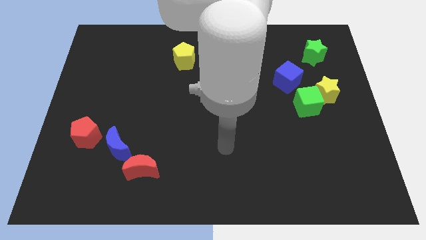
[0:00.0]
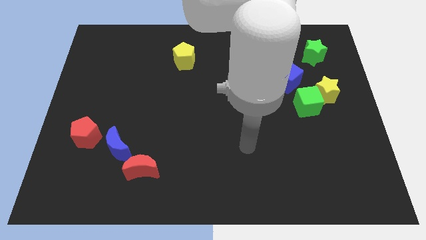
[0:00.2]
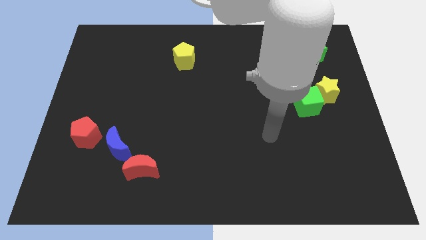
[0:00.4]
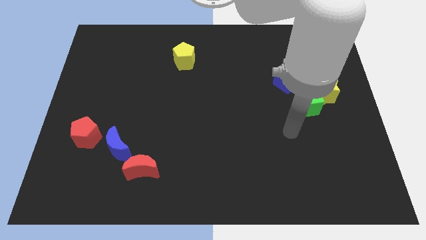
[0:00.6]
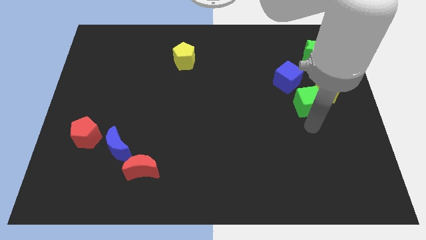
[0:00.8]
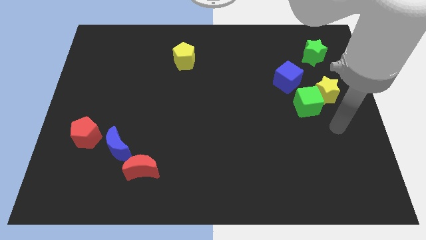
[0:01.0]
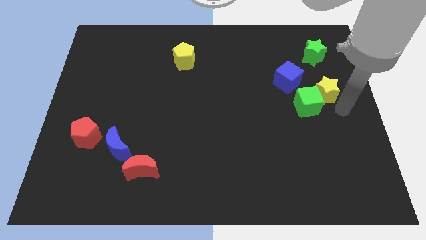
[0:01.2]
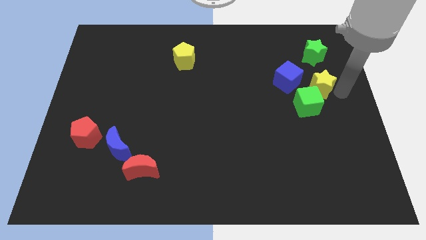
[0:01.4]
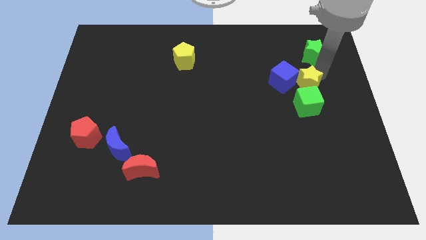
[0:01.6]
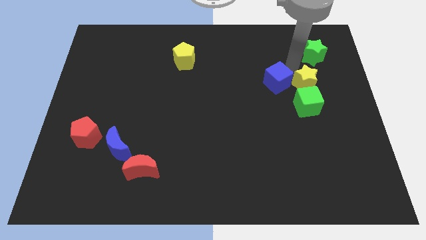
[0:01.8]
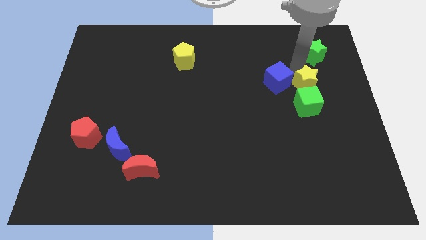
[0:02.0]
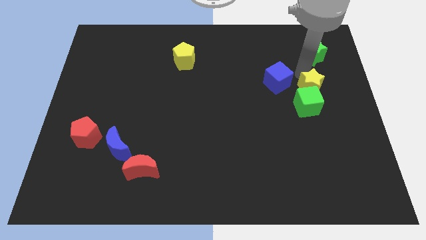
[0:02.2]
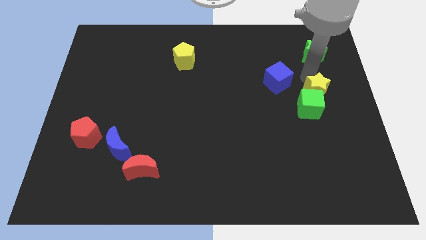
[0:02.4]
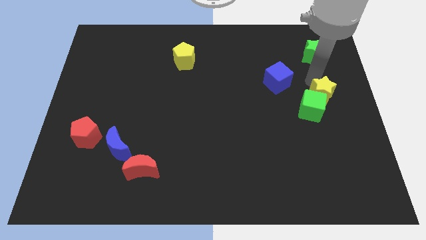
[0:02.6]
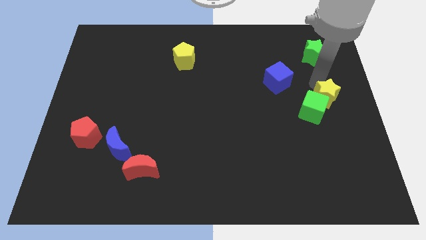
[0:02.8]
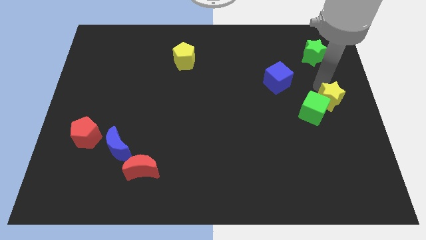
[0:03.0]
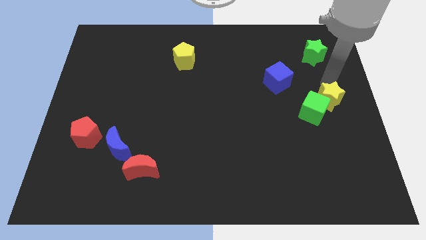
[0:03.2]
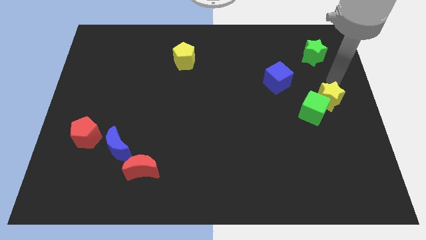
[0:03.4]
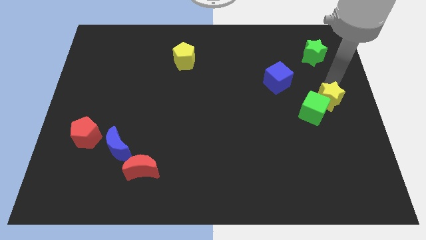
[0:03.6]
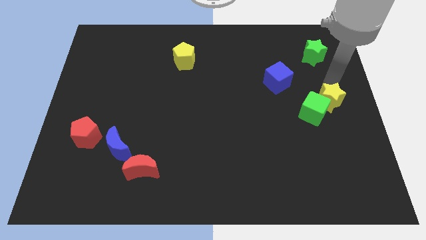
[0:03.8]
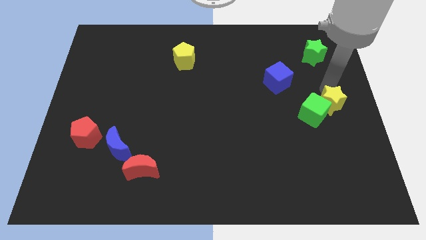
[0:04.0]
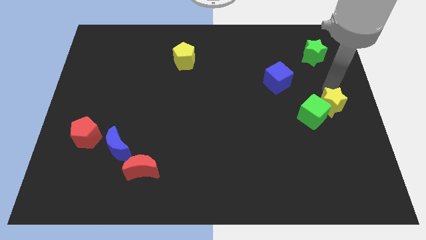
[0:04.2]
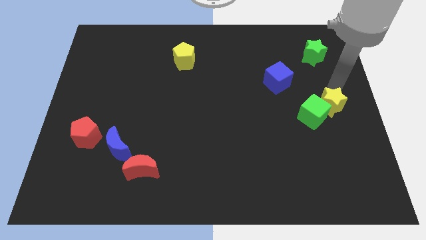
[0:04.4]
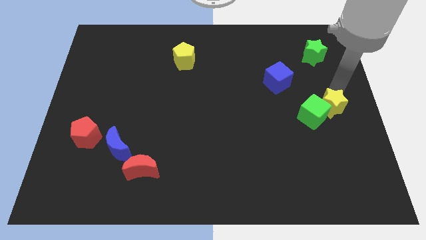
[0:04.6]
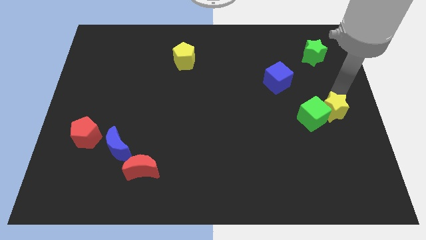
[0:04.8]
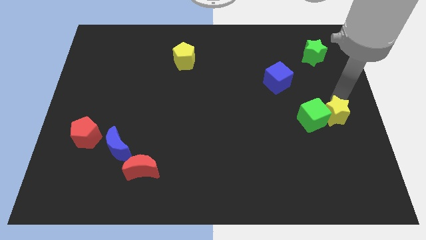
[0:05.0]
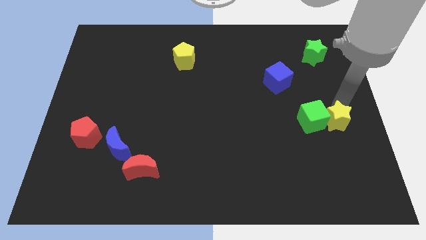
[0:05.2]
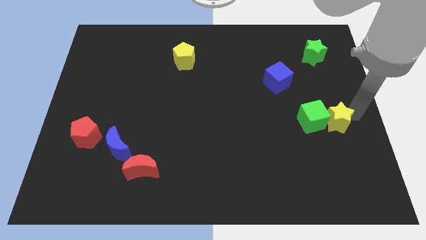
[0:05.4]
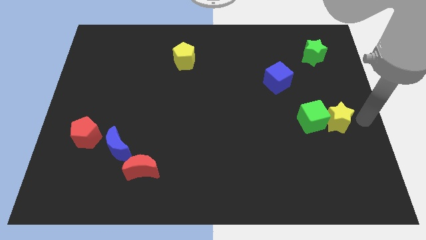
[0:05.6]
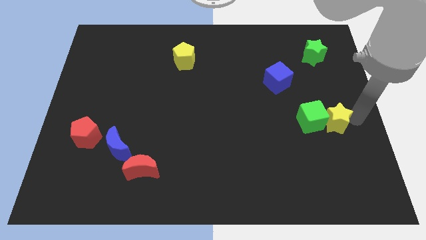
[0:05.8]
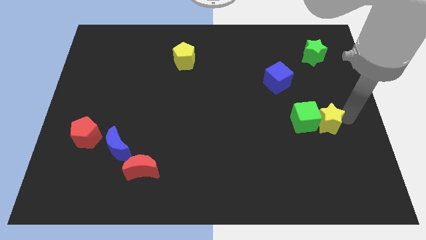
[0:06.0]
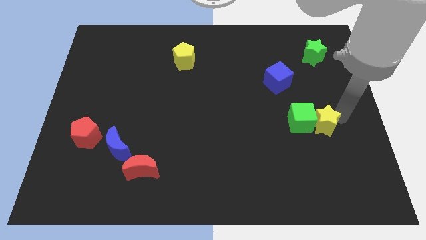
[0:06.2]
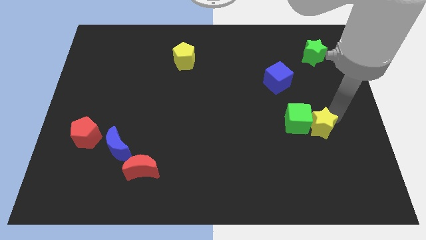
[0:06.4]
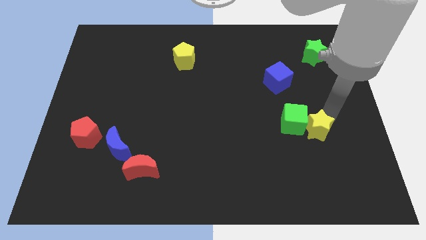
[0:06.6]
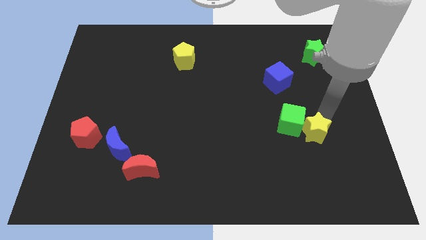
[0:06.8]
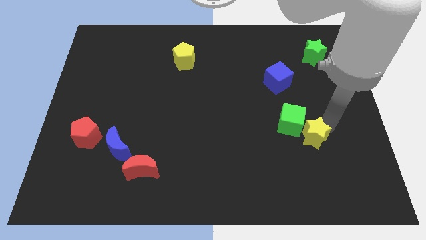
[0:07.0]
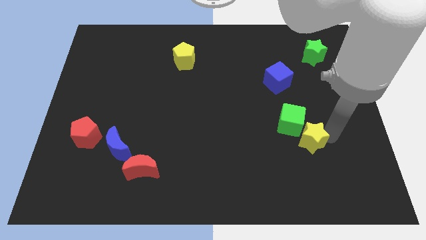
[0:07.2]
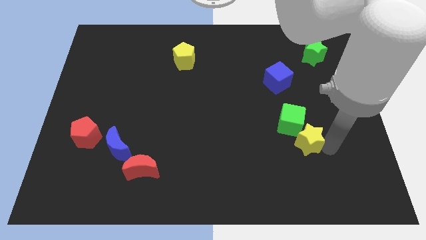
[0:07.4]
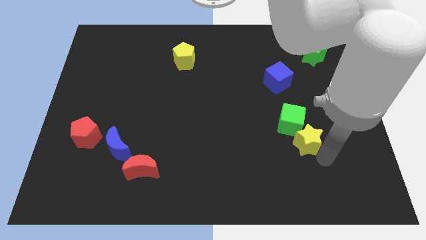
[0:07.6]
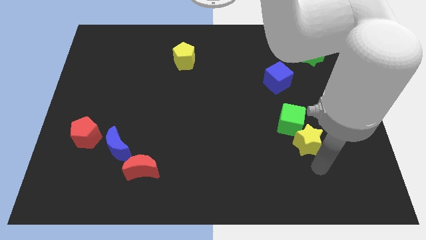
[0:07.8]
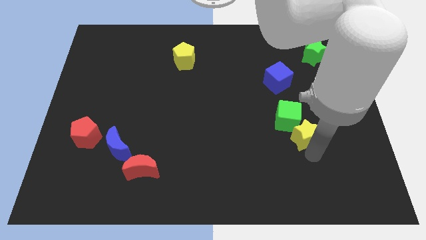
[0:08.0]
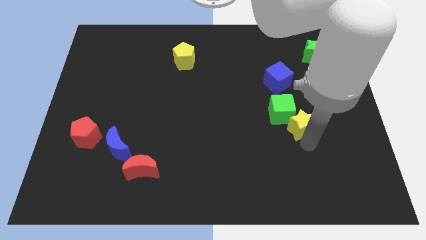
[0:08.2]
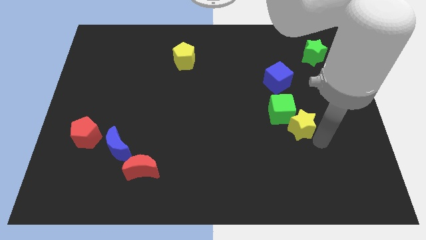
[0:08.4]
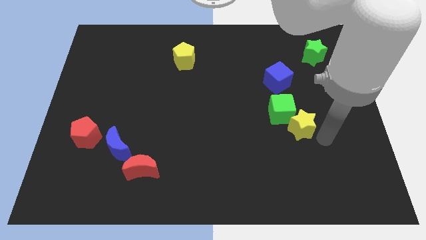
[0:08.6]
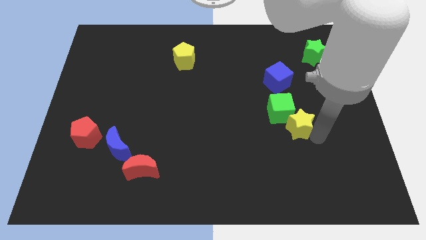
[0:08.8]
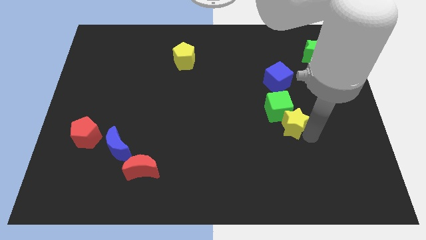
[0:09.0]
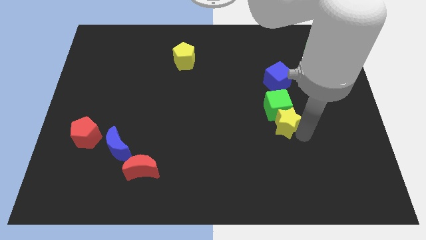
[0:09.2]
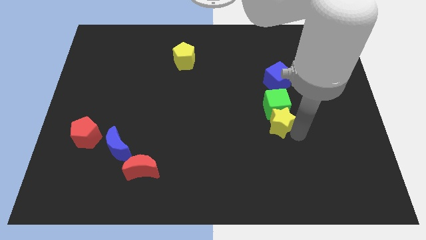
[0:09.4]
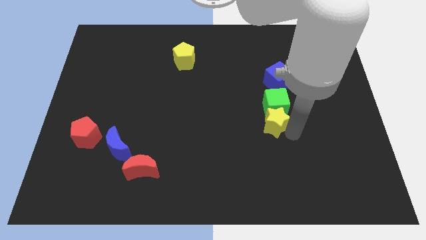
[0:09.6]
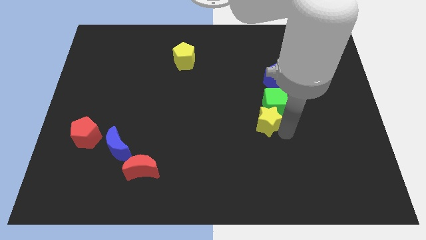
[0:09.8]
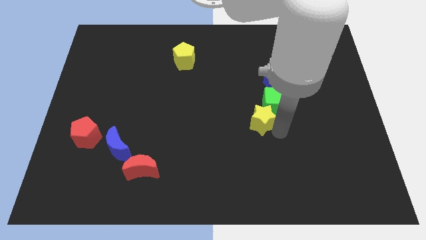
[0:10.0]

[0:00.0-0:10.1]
move the yellow star to the middle
